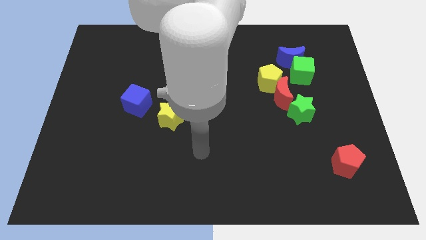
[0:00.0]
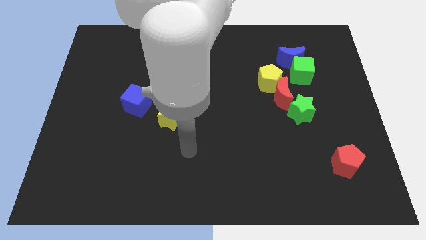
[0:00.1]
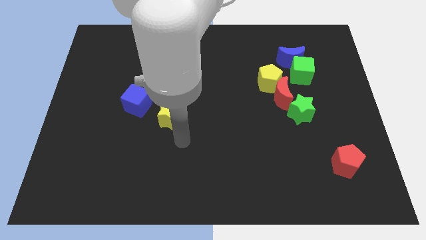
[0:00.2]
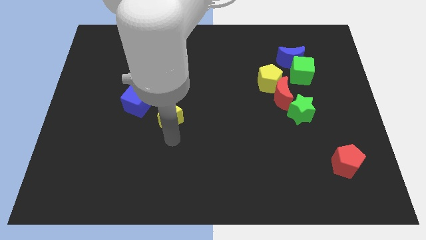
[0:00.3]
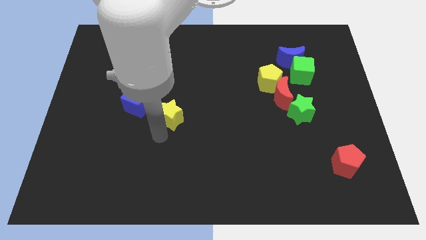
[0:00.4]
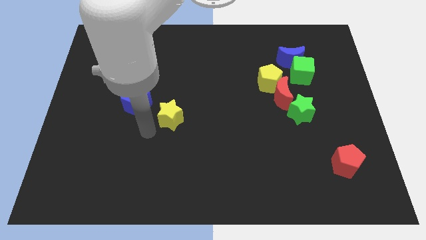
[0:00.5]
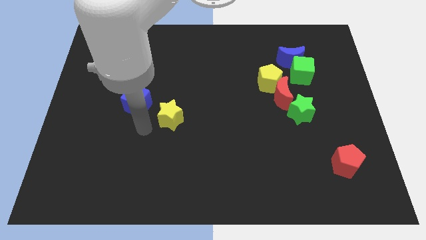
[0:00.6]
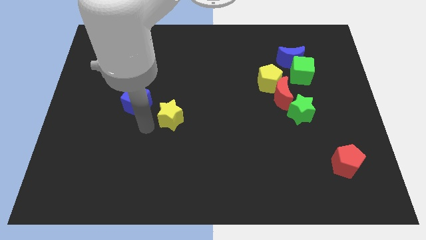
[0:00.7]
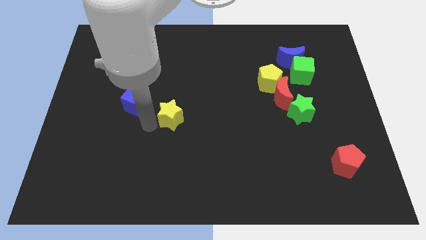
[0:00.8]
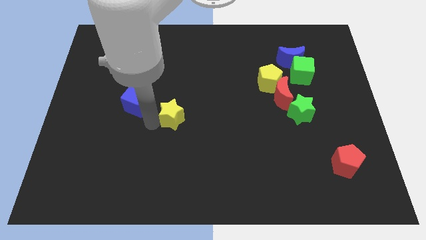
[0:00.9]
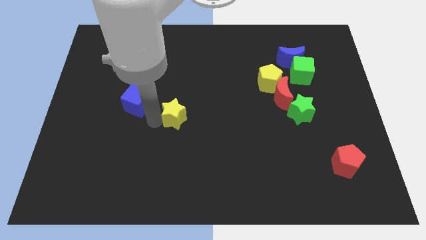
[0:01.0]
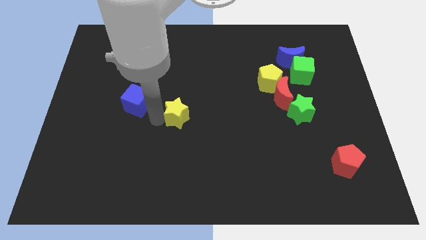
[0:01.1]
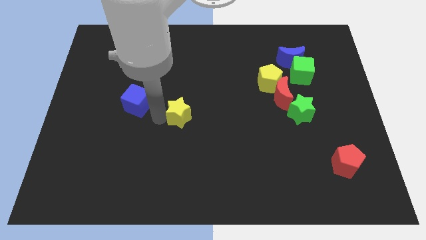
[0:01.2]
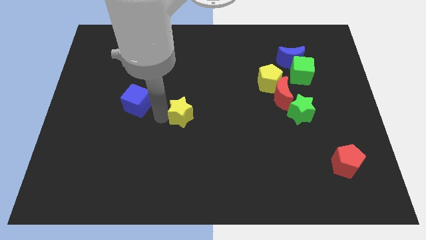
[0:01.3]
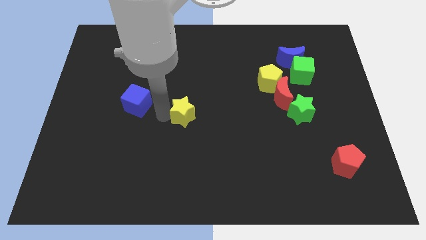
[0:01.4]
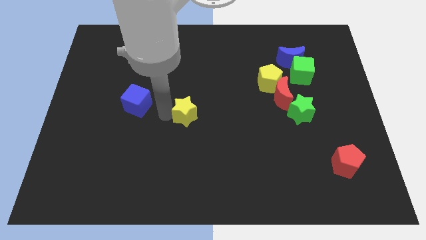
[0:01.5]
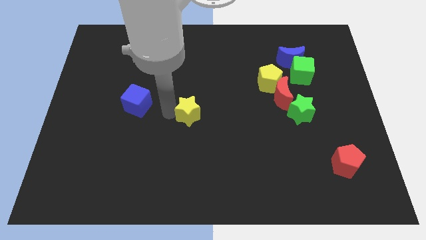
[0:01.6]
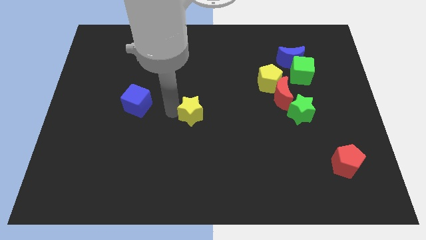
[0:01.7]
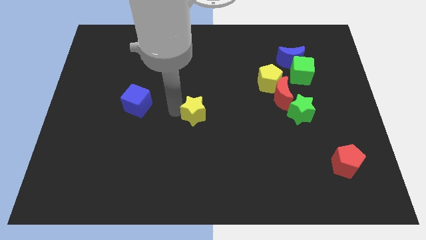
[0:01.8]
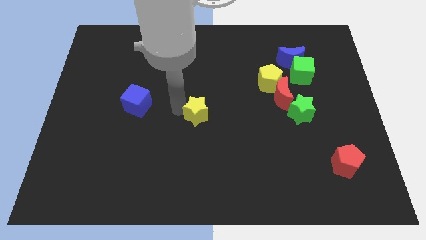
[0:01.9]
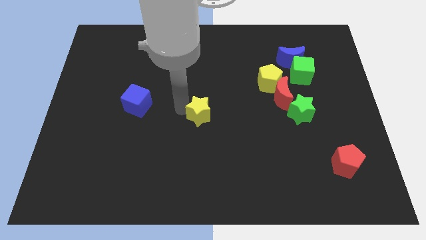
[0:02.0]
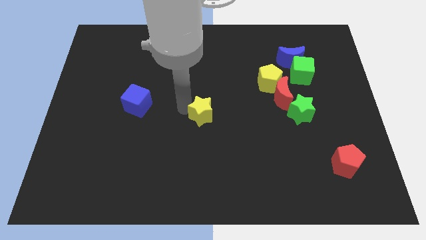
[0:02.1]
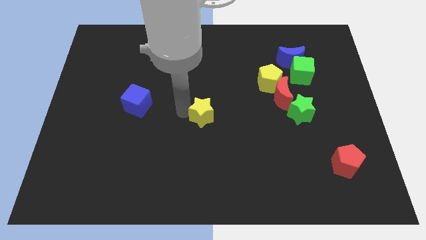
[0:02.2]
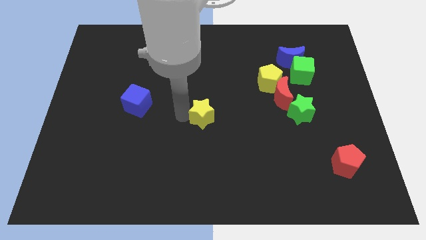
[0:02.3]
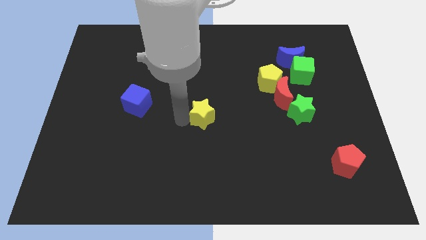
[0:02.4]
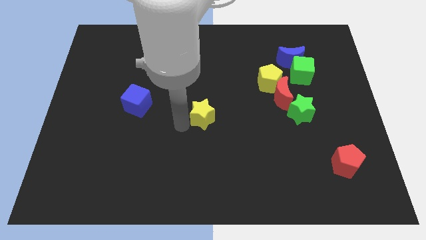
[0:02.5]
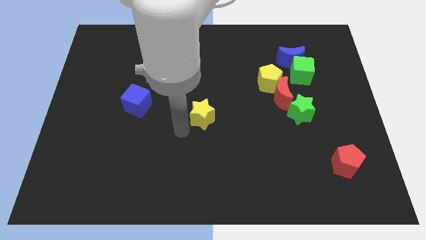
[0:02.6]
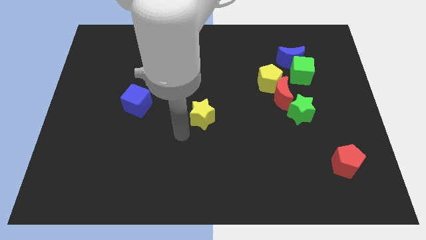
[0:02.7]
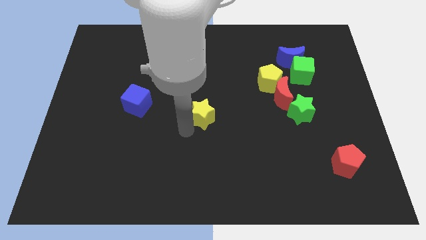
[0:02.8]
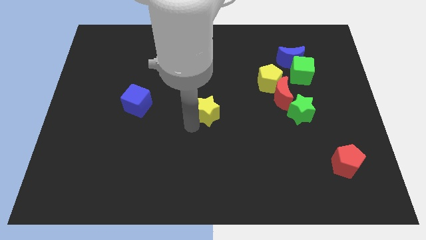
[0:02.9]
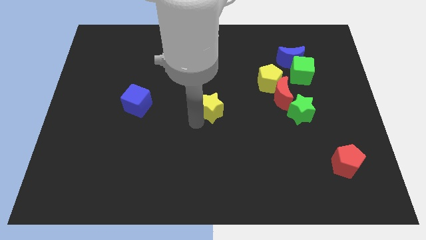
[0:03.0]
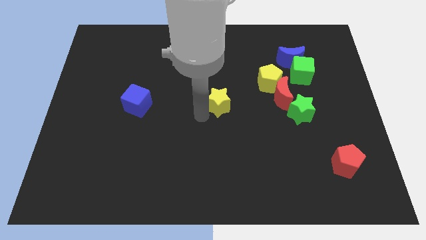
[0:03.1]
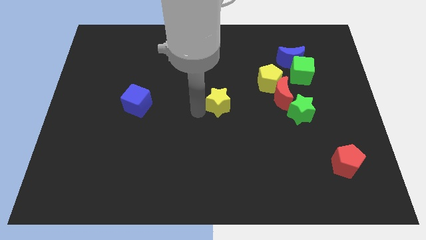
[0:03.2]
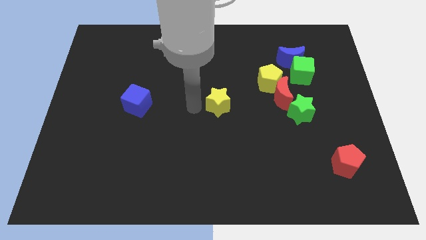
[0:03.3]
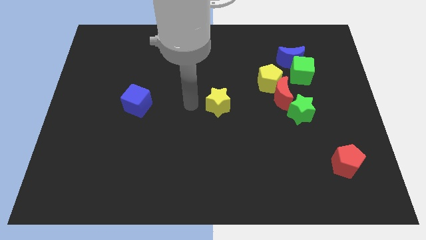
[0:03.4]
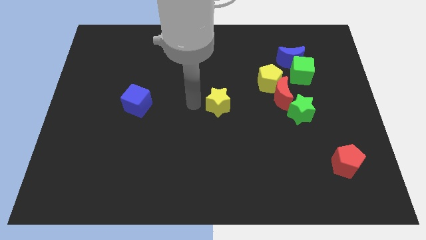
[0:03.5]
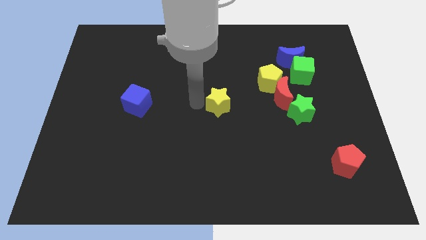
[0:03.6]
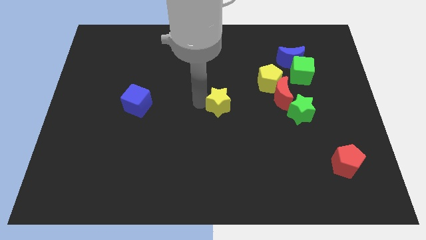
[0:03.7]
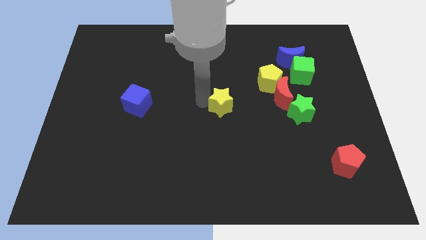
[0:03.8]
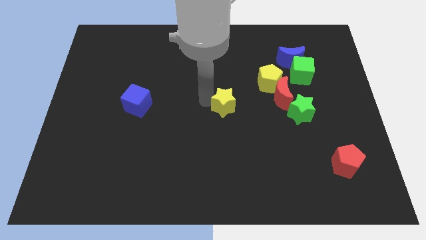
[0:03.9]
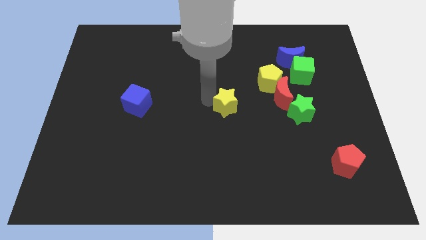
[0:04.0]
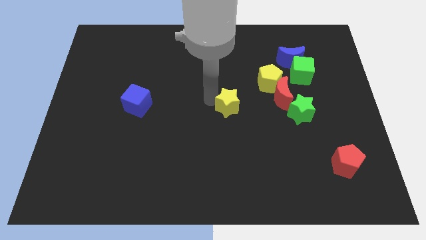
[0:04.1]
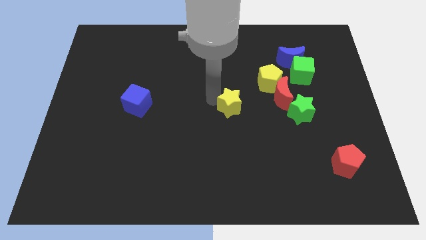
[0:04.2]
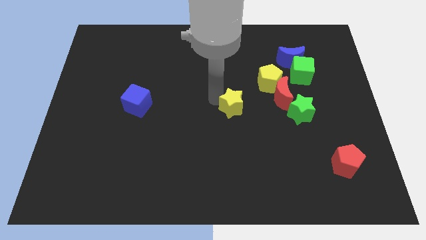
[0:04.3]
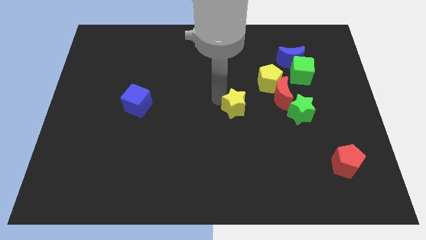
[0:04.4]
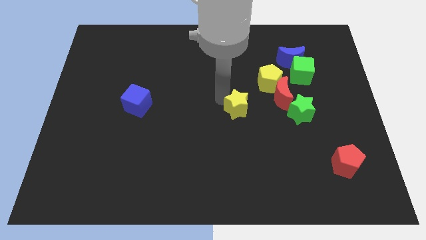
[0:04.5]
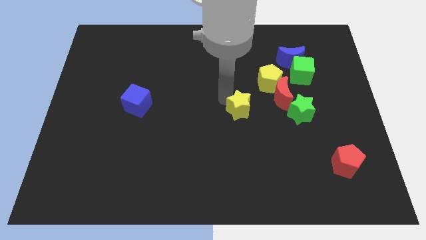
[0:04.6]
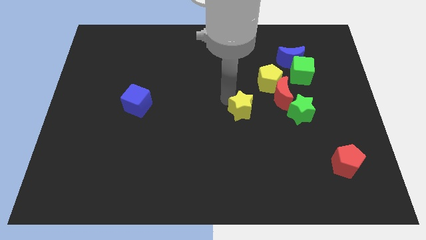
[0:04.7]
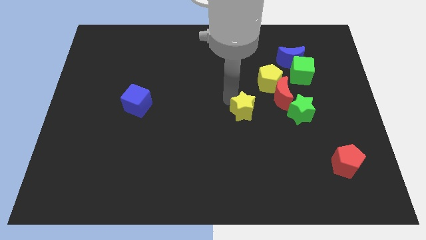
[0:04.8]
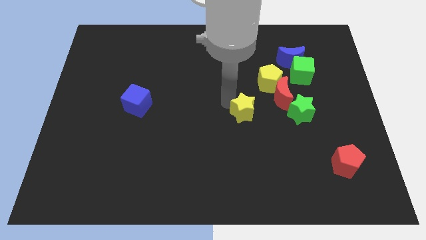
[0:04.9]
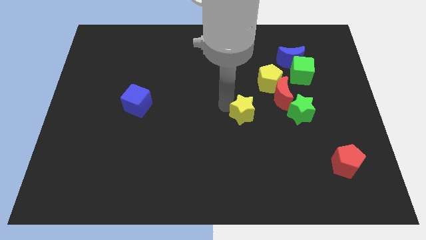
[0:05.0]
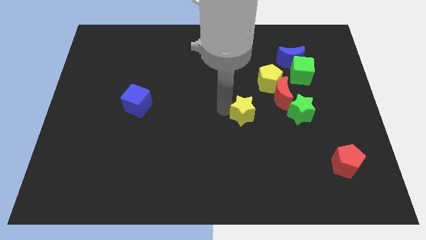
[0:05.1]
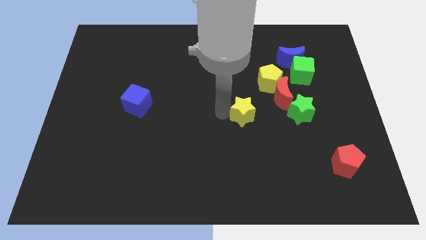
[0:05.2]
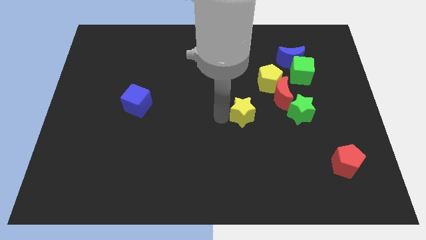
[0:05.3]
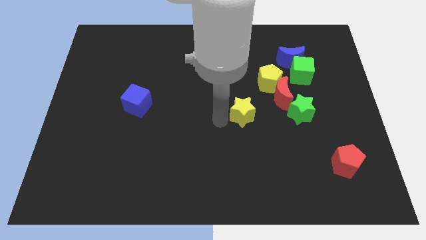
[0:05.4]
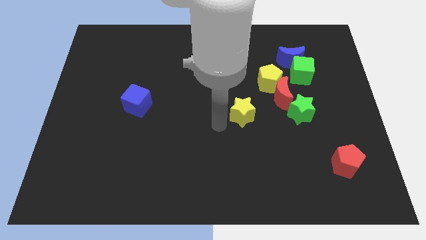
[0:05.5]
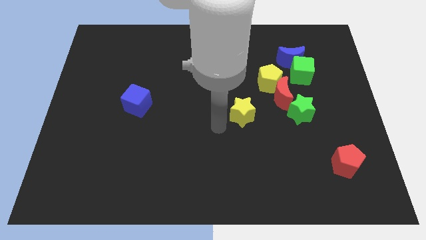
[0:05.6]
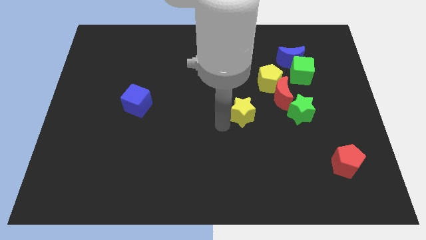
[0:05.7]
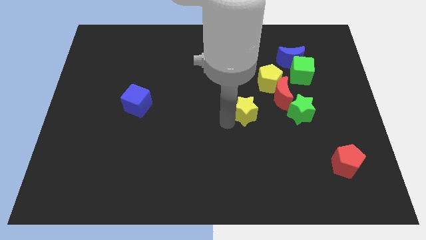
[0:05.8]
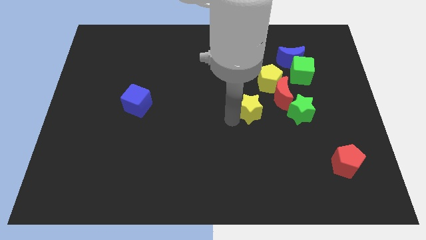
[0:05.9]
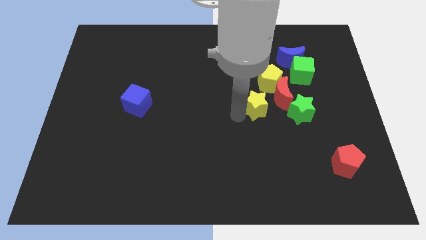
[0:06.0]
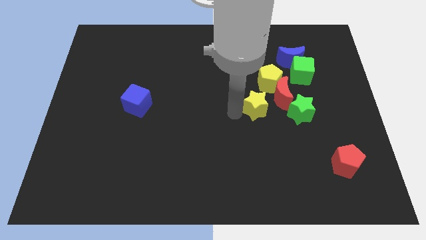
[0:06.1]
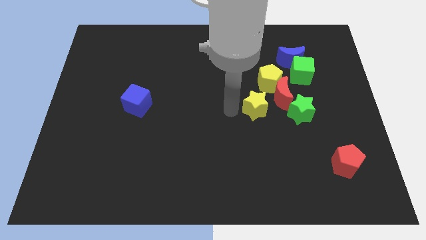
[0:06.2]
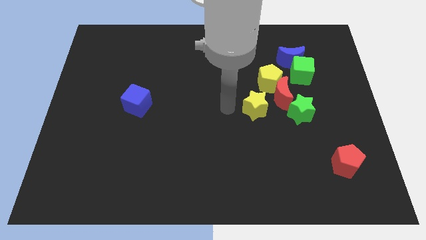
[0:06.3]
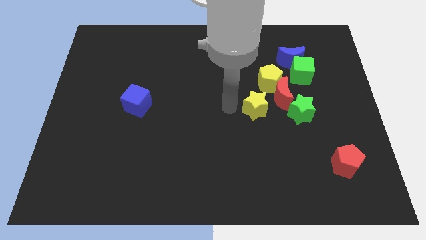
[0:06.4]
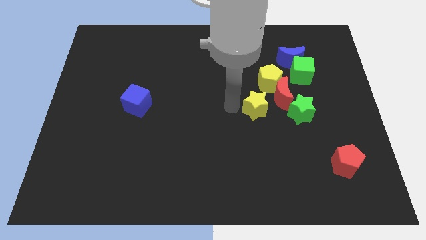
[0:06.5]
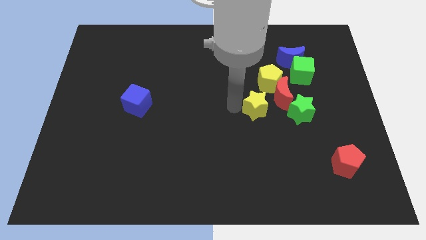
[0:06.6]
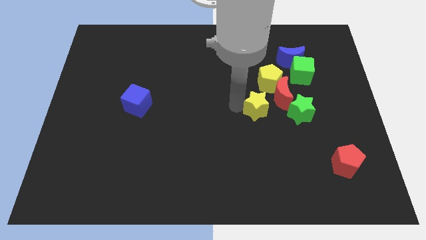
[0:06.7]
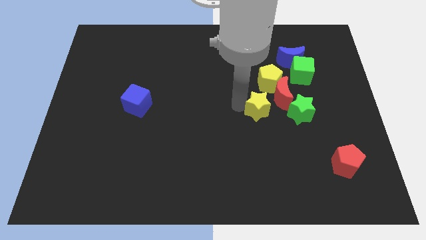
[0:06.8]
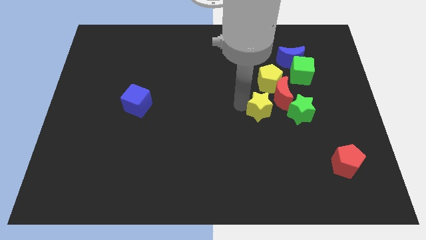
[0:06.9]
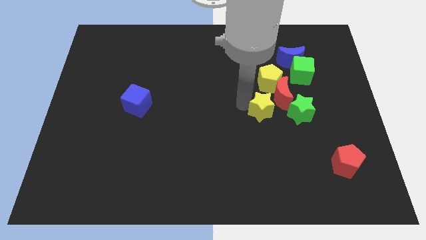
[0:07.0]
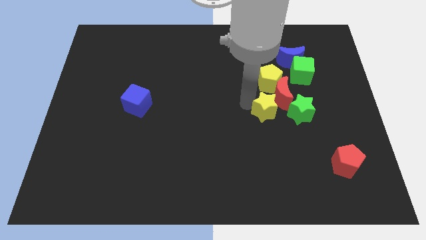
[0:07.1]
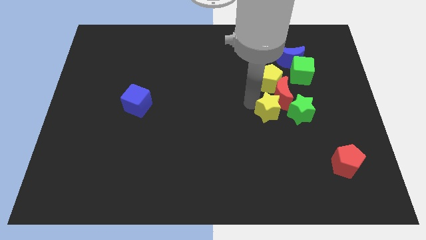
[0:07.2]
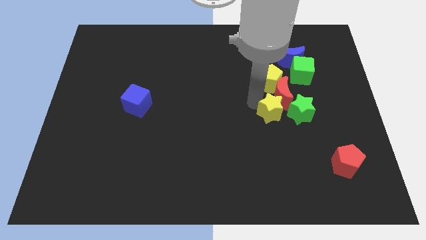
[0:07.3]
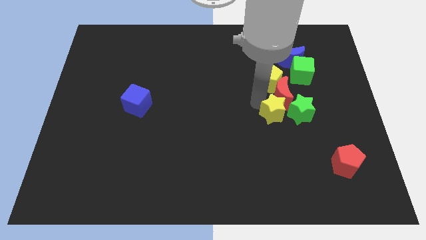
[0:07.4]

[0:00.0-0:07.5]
slide the yellow star close to the green star
